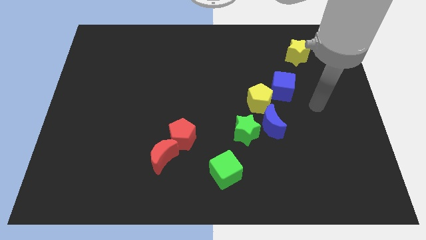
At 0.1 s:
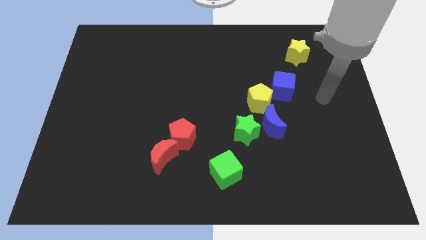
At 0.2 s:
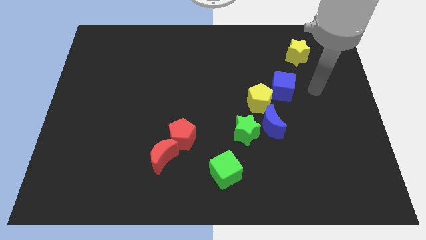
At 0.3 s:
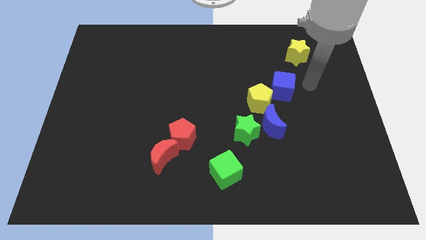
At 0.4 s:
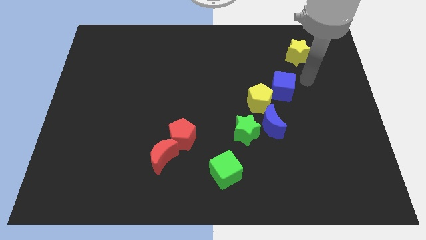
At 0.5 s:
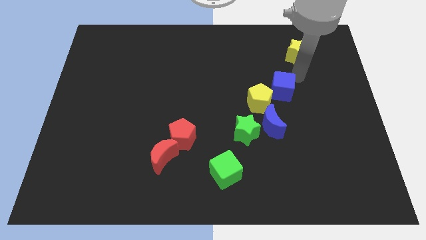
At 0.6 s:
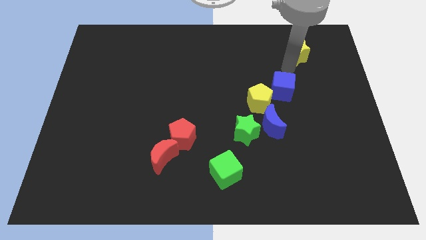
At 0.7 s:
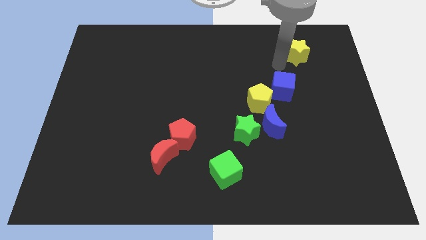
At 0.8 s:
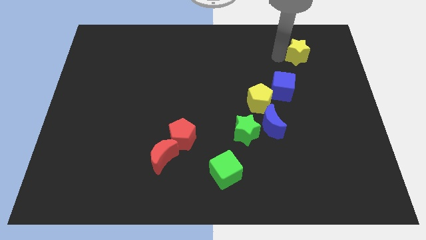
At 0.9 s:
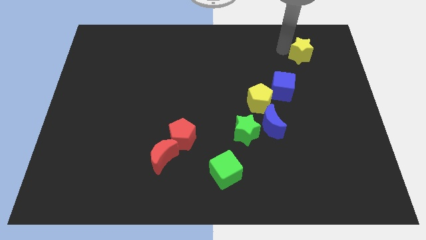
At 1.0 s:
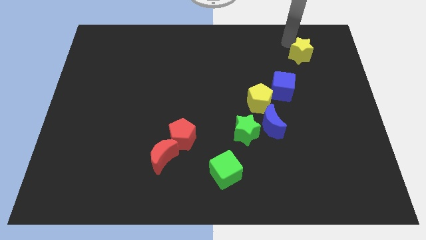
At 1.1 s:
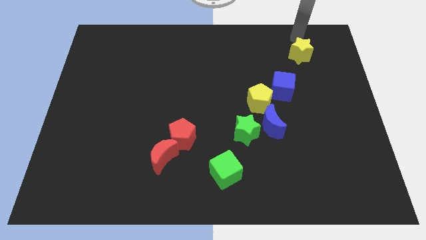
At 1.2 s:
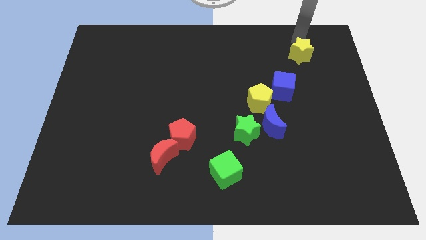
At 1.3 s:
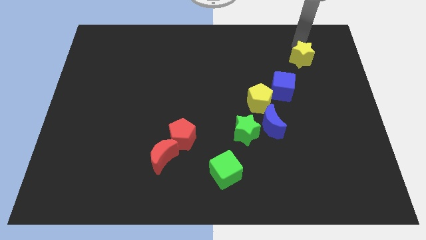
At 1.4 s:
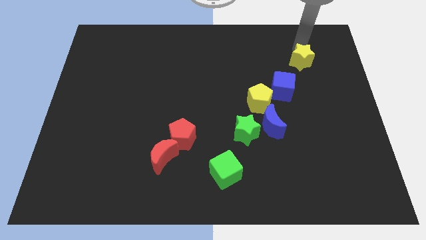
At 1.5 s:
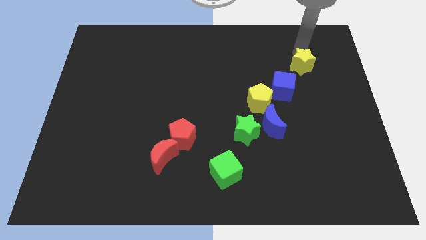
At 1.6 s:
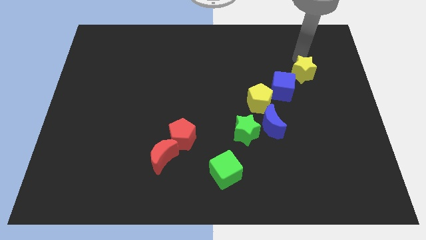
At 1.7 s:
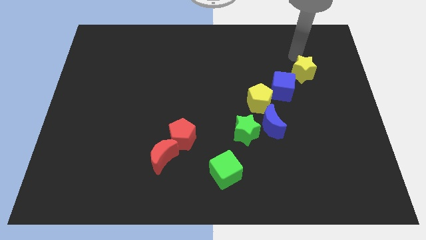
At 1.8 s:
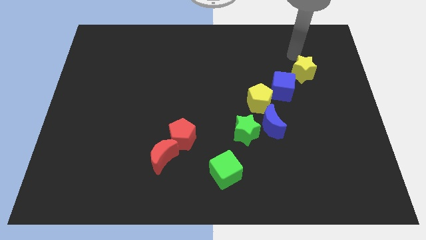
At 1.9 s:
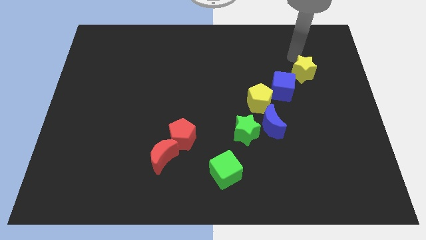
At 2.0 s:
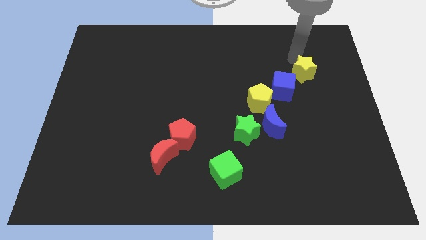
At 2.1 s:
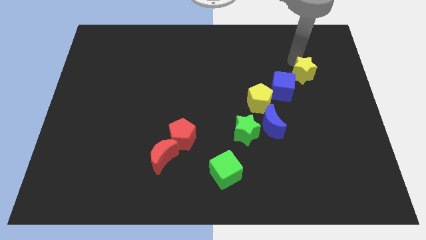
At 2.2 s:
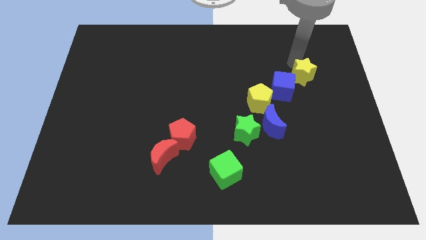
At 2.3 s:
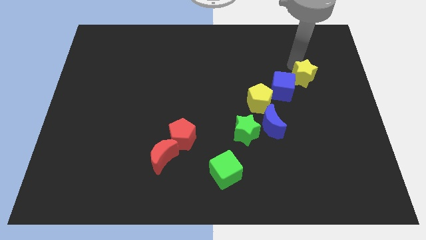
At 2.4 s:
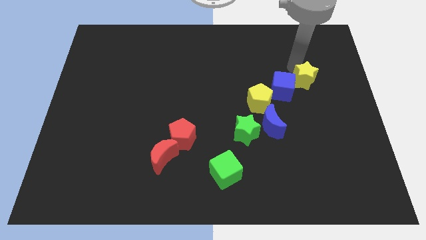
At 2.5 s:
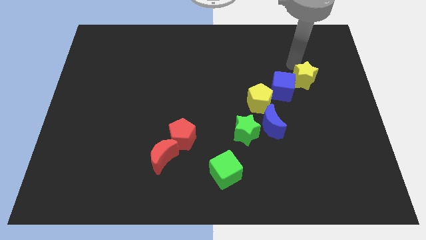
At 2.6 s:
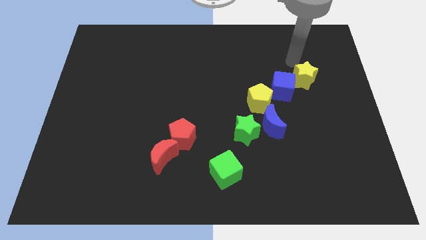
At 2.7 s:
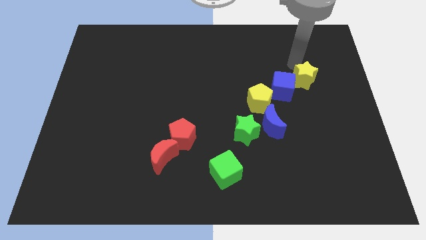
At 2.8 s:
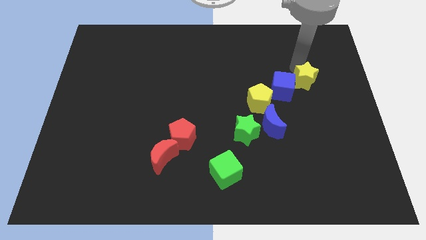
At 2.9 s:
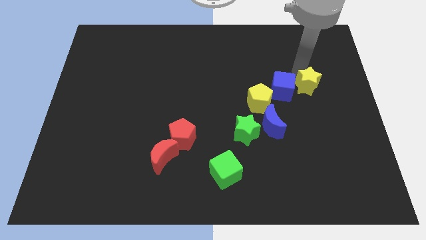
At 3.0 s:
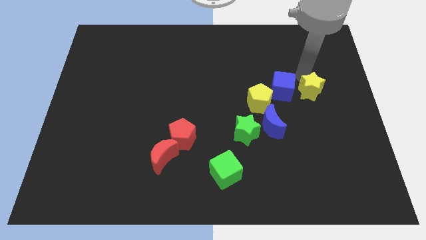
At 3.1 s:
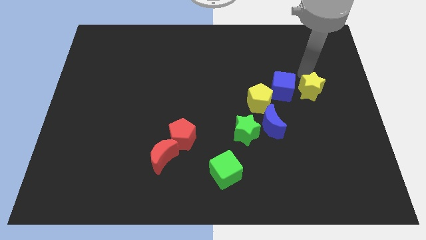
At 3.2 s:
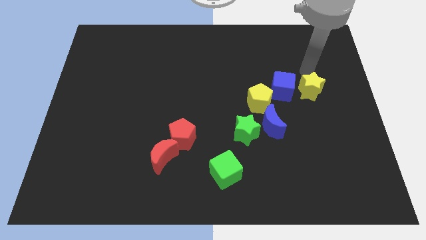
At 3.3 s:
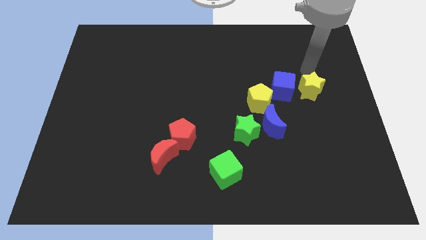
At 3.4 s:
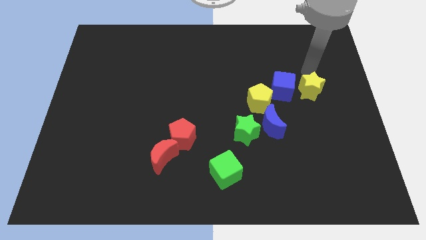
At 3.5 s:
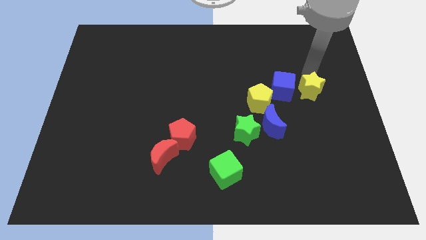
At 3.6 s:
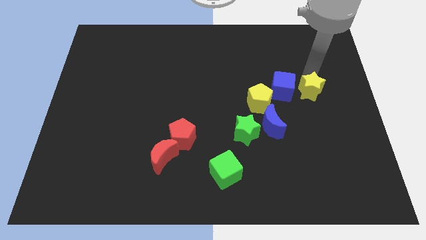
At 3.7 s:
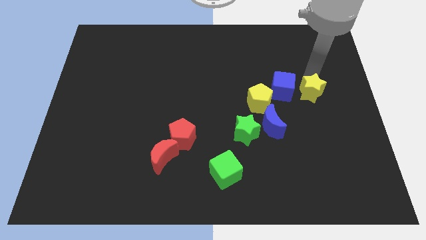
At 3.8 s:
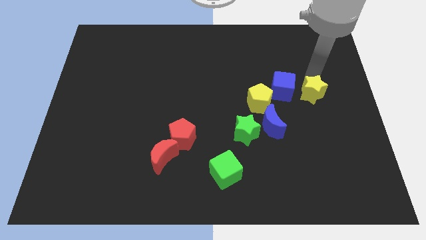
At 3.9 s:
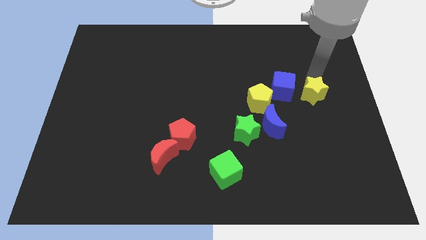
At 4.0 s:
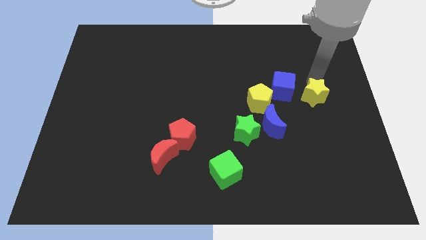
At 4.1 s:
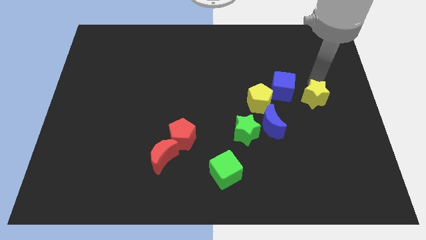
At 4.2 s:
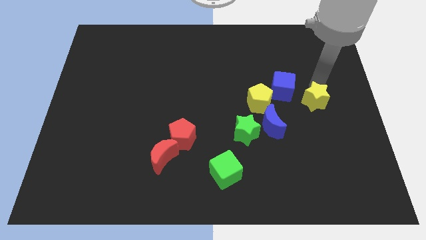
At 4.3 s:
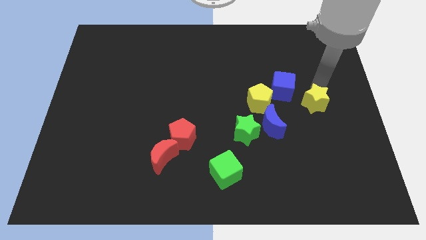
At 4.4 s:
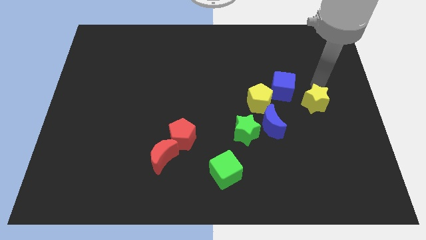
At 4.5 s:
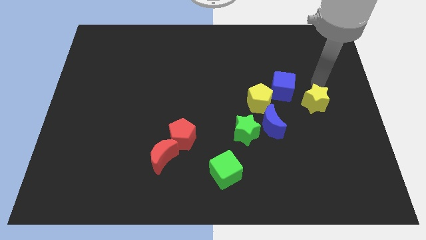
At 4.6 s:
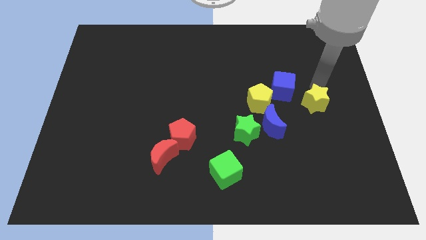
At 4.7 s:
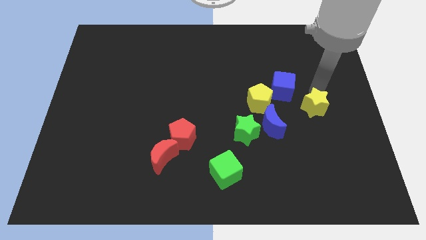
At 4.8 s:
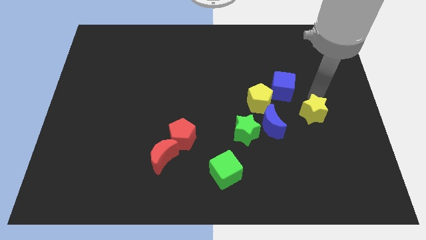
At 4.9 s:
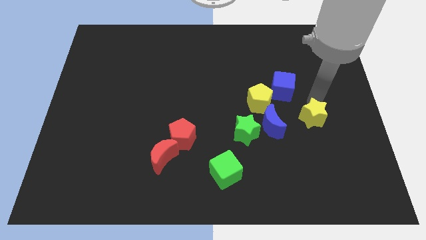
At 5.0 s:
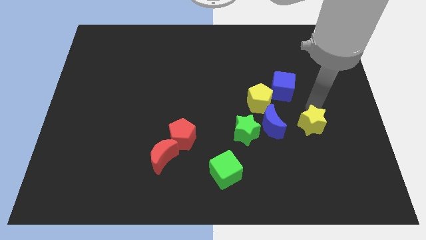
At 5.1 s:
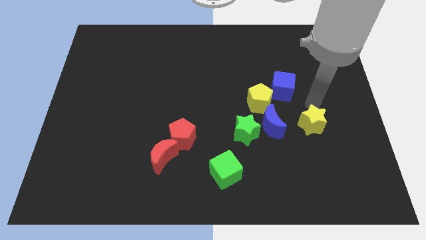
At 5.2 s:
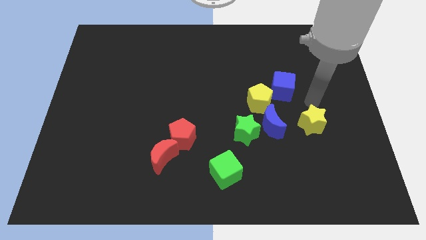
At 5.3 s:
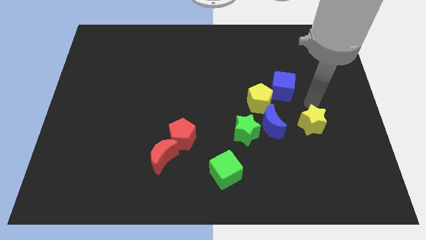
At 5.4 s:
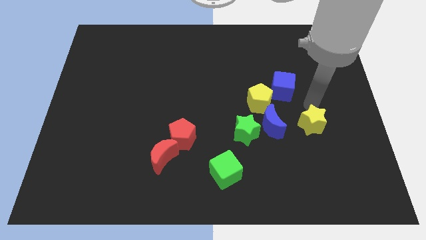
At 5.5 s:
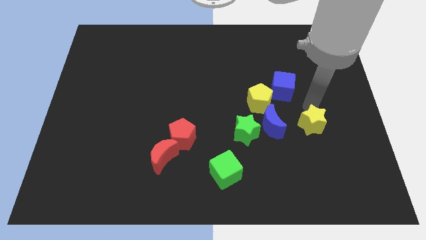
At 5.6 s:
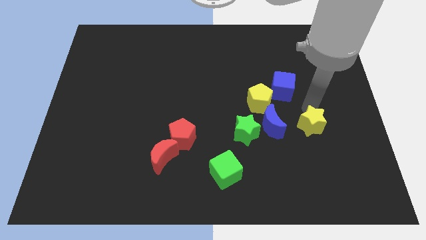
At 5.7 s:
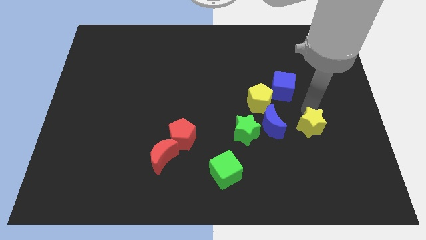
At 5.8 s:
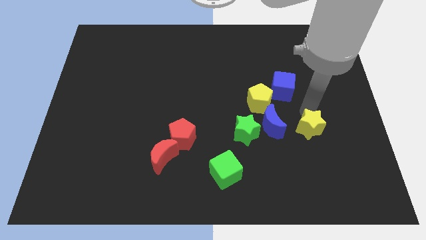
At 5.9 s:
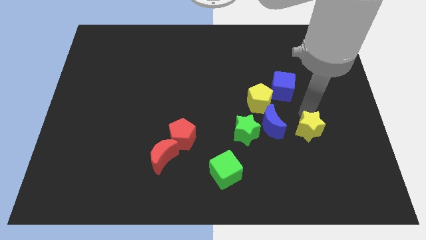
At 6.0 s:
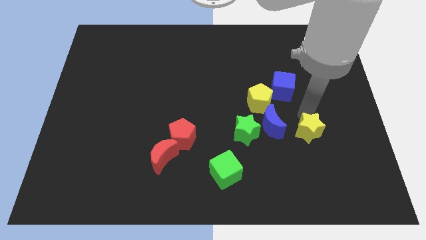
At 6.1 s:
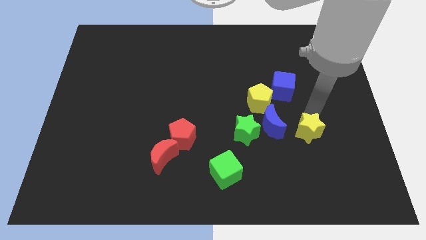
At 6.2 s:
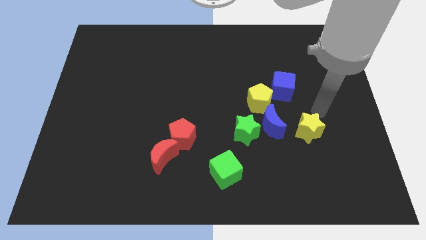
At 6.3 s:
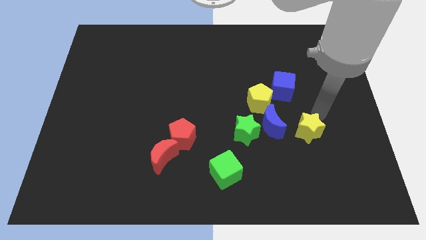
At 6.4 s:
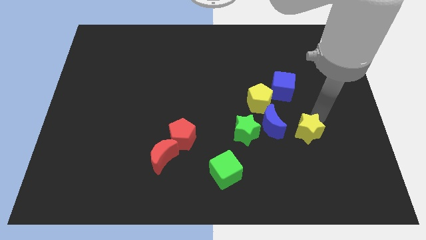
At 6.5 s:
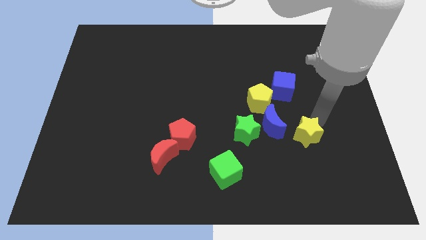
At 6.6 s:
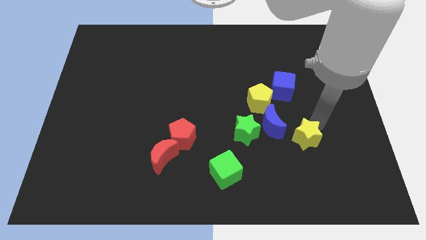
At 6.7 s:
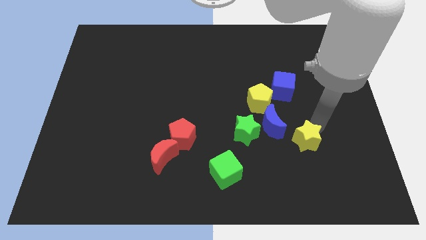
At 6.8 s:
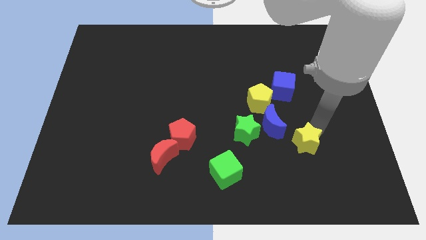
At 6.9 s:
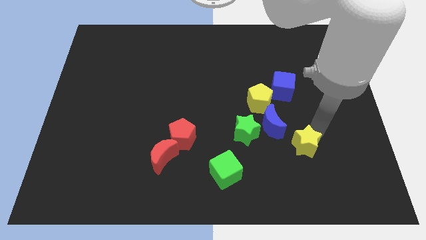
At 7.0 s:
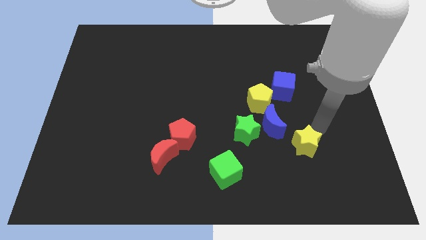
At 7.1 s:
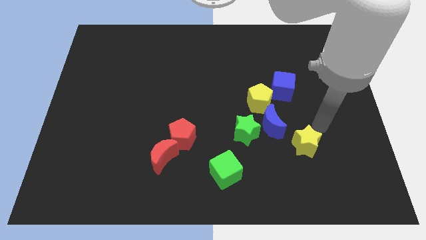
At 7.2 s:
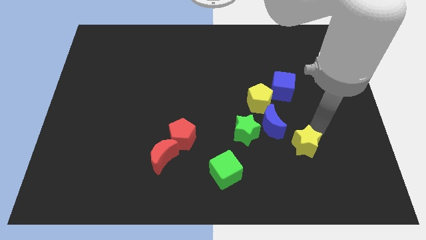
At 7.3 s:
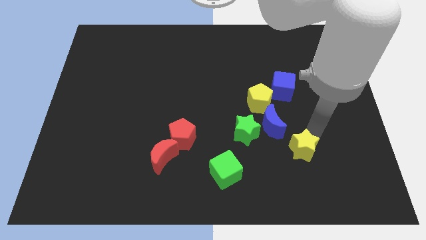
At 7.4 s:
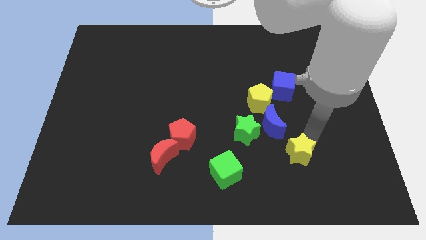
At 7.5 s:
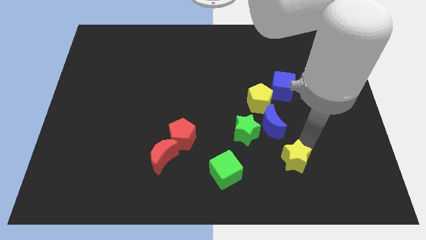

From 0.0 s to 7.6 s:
put the yellow star just right of the green cube
